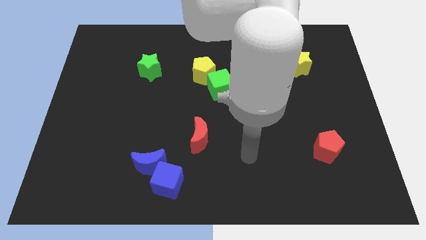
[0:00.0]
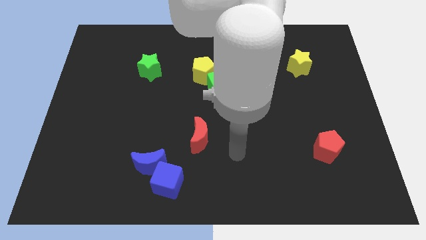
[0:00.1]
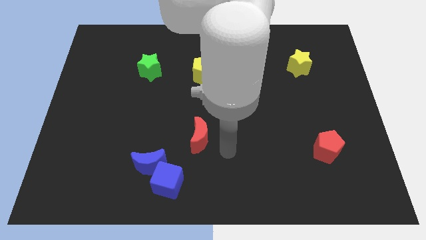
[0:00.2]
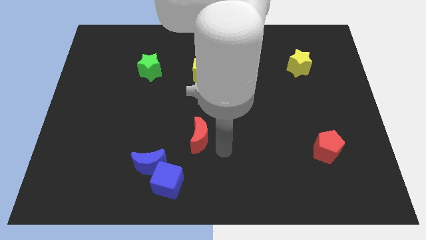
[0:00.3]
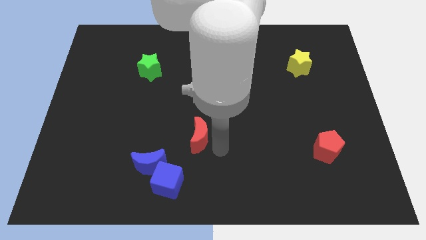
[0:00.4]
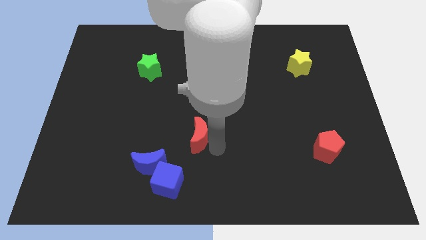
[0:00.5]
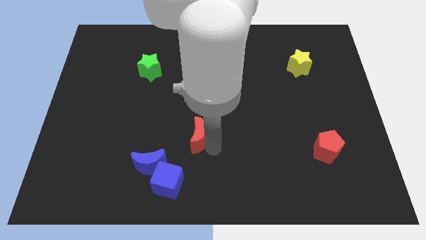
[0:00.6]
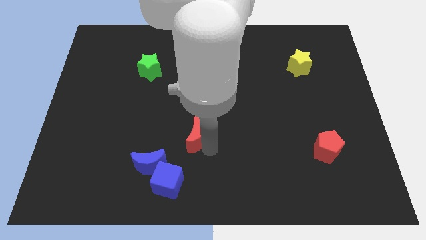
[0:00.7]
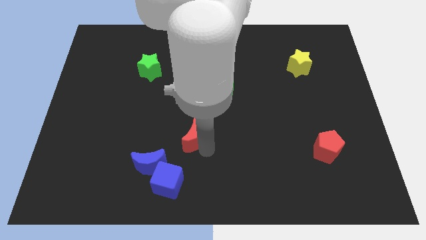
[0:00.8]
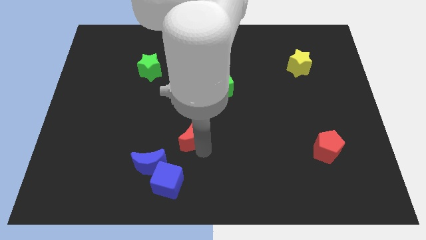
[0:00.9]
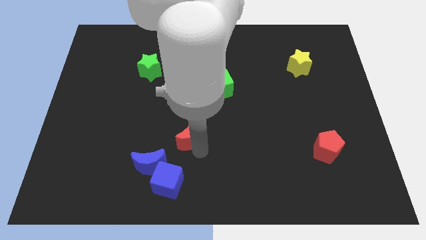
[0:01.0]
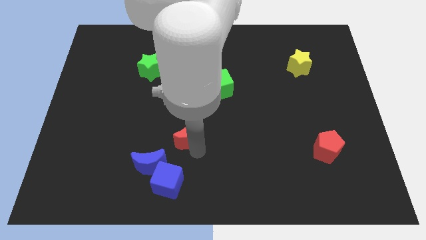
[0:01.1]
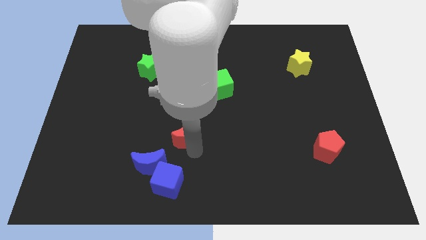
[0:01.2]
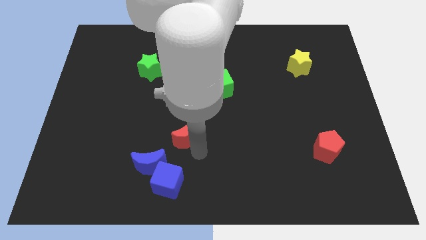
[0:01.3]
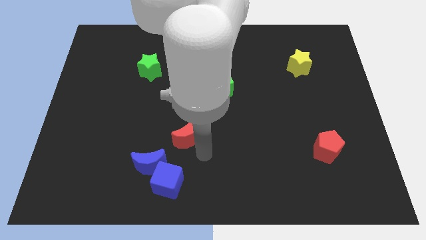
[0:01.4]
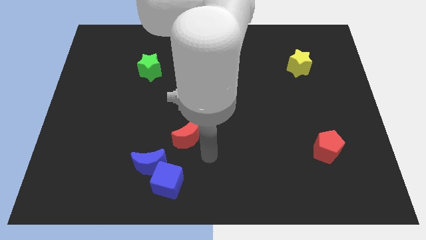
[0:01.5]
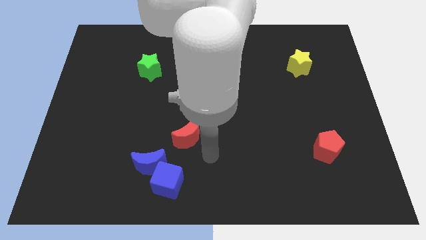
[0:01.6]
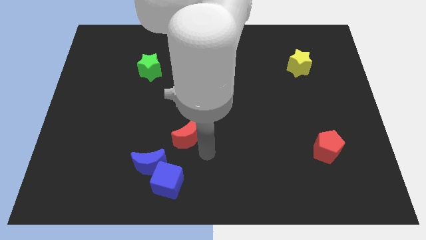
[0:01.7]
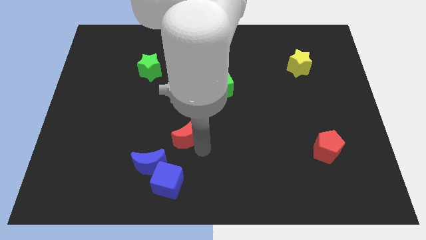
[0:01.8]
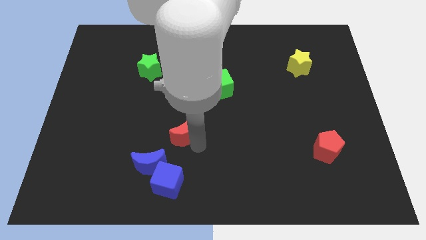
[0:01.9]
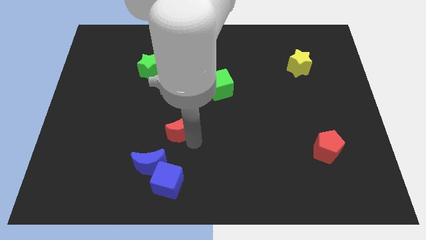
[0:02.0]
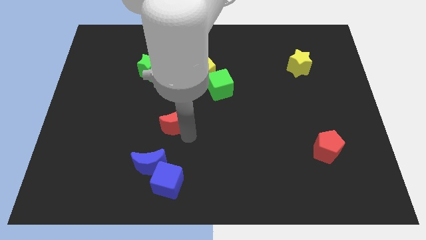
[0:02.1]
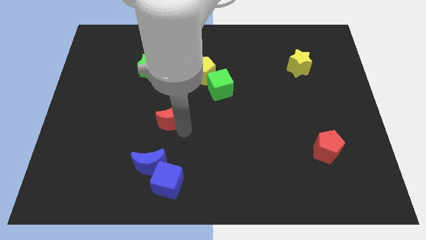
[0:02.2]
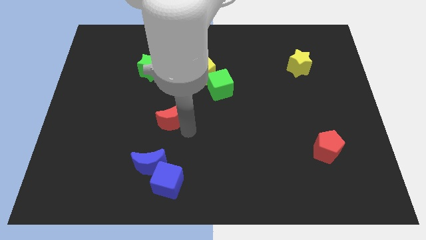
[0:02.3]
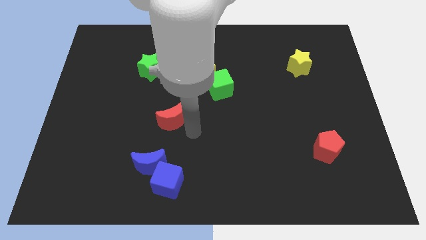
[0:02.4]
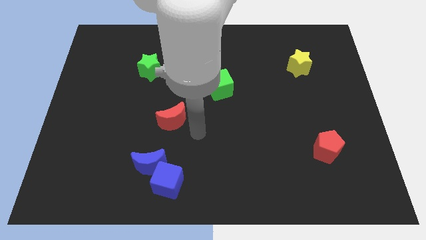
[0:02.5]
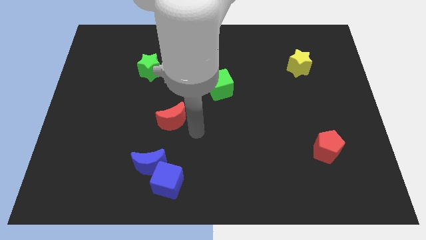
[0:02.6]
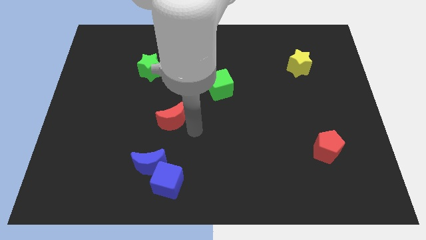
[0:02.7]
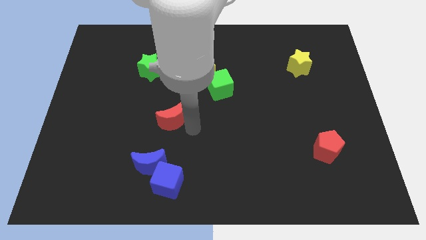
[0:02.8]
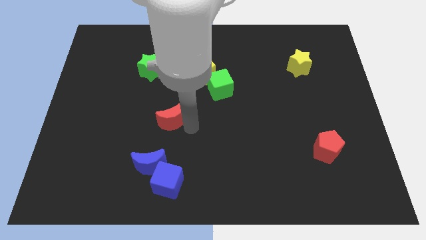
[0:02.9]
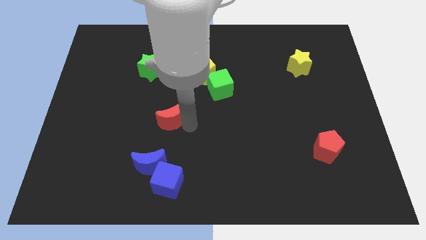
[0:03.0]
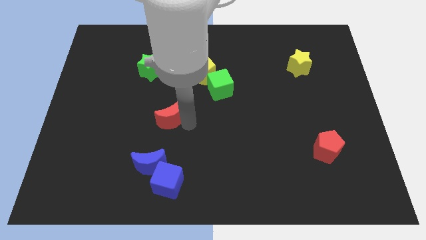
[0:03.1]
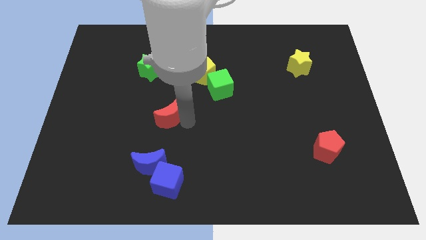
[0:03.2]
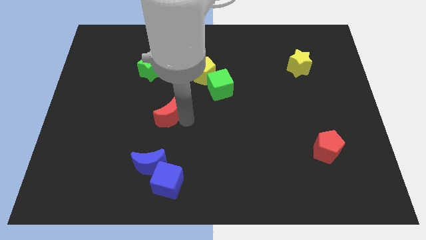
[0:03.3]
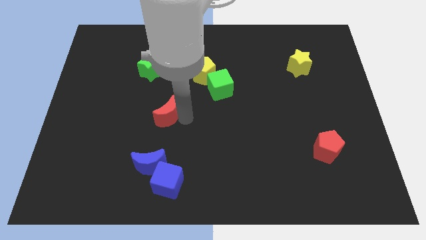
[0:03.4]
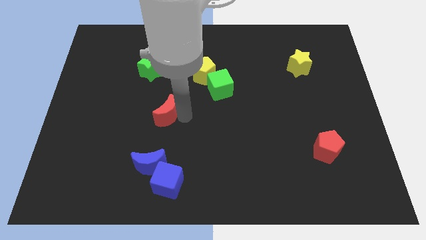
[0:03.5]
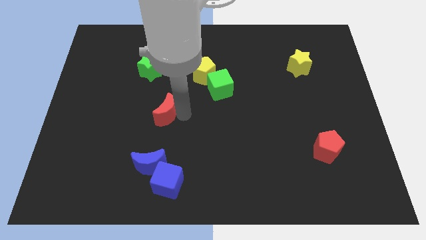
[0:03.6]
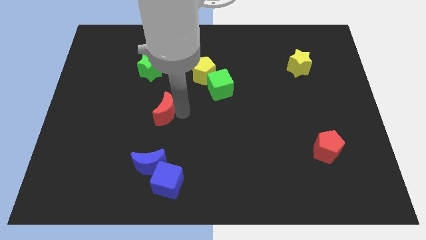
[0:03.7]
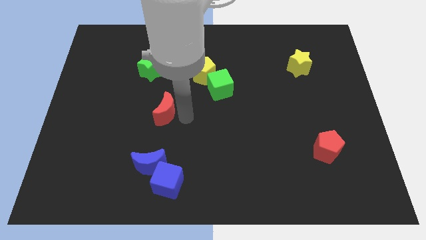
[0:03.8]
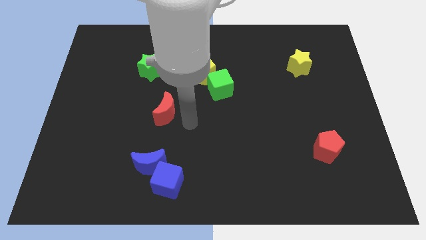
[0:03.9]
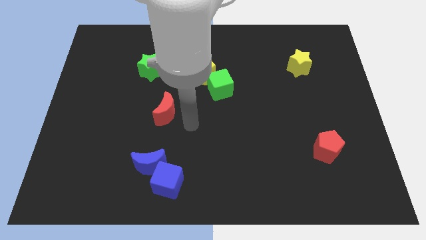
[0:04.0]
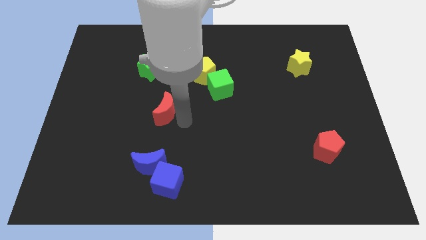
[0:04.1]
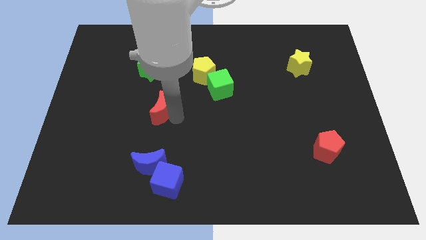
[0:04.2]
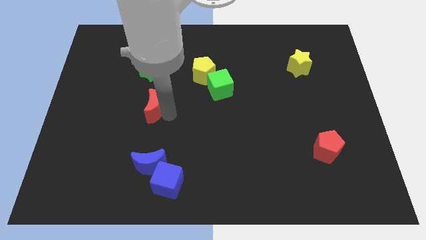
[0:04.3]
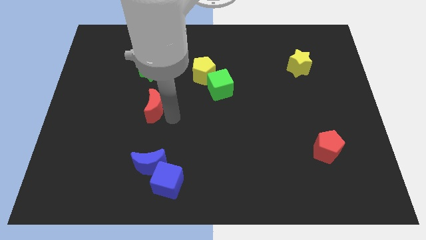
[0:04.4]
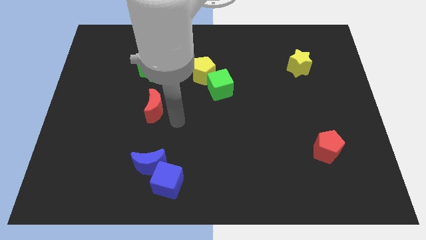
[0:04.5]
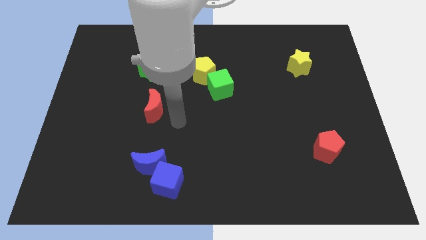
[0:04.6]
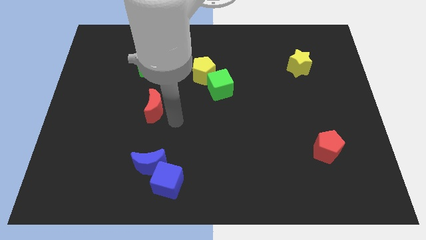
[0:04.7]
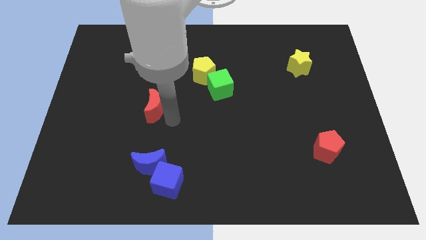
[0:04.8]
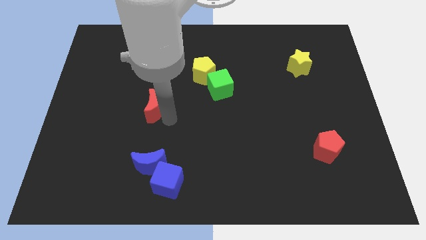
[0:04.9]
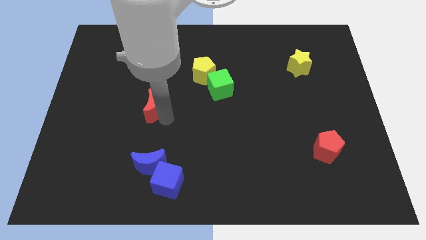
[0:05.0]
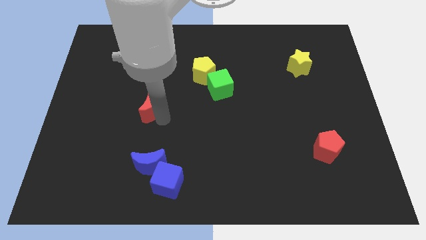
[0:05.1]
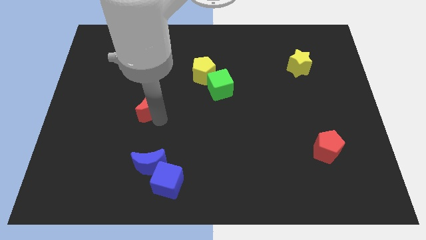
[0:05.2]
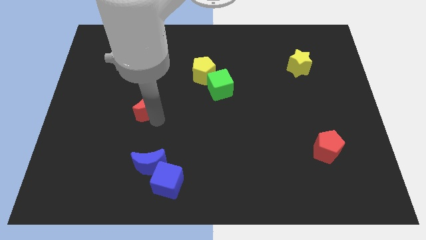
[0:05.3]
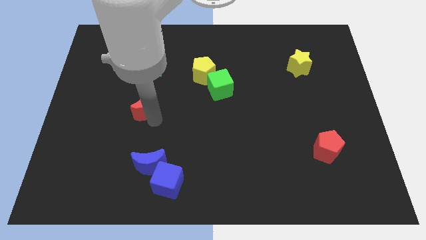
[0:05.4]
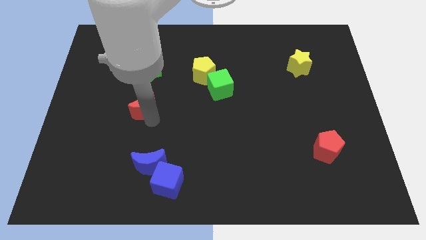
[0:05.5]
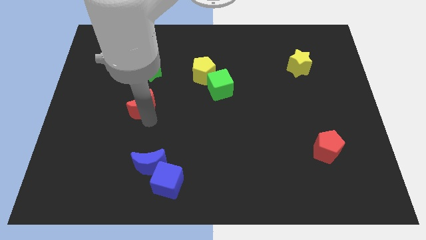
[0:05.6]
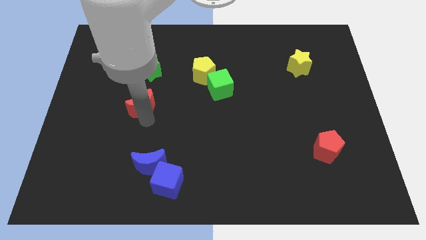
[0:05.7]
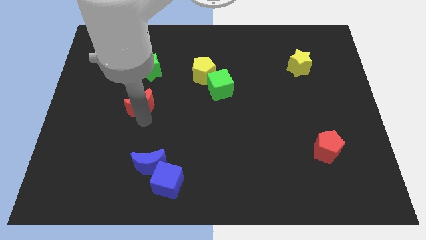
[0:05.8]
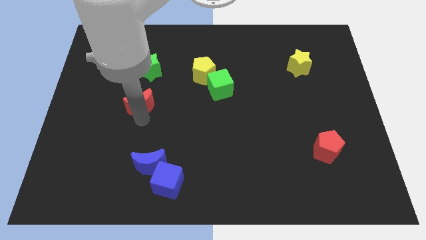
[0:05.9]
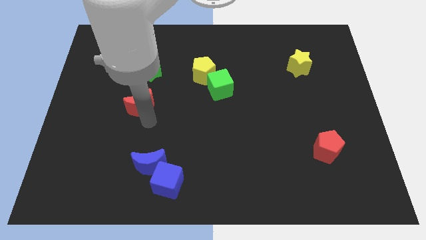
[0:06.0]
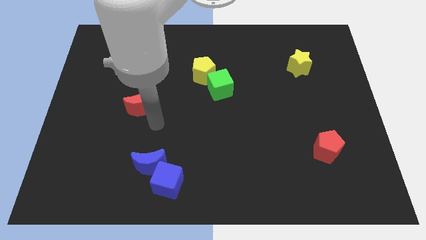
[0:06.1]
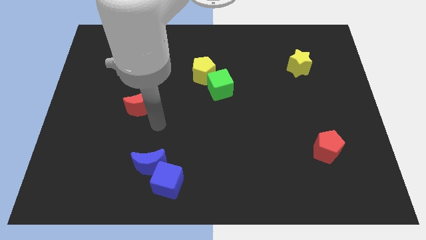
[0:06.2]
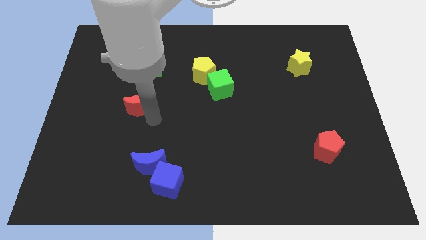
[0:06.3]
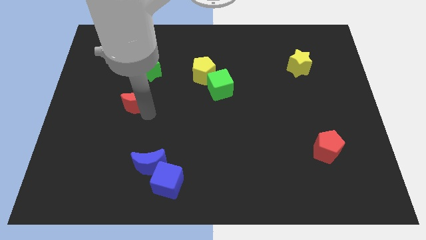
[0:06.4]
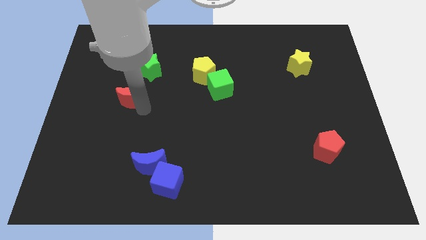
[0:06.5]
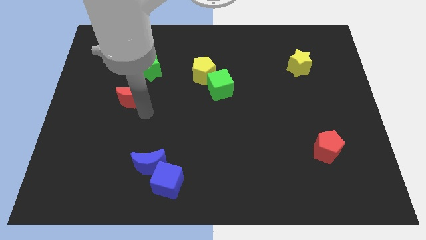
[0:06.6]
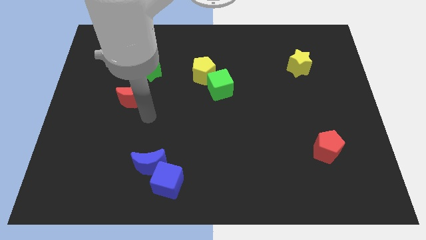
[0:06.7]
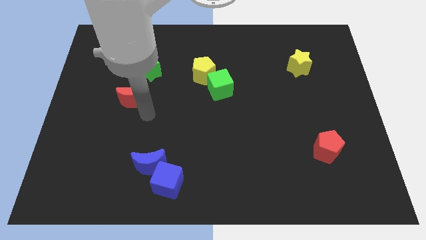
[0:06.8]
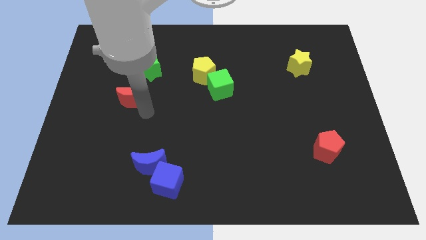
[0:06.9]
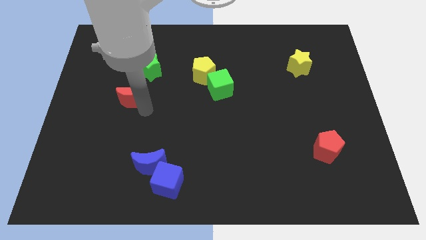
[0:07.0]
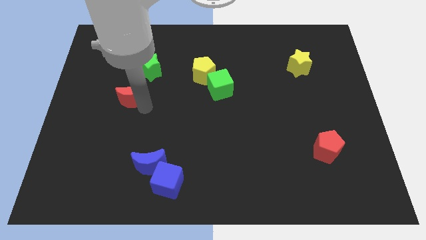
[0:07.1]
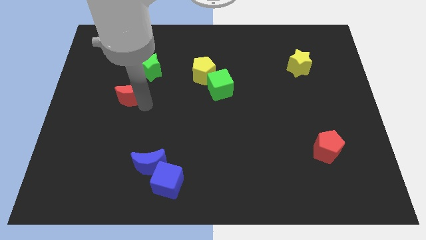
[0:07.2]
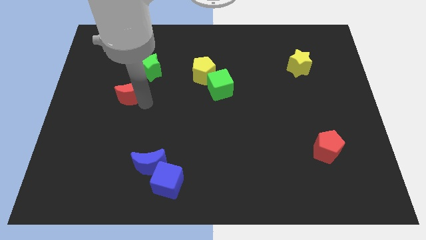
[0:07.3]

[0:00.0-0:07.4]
move the red moon diagonally up and left

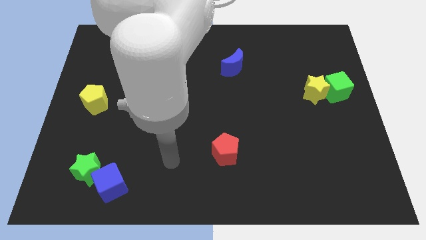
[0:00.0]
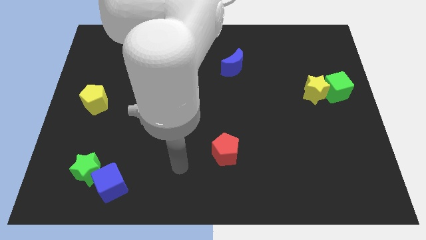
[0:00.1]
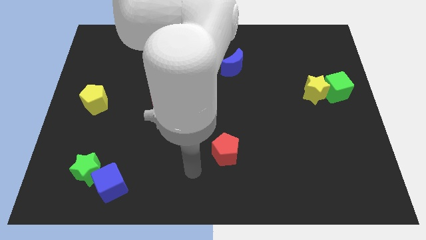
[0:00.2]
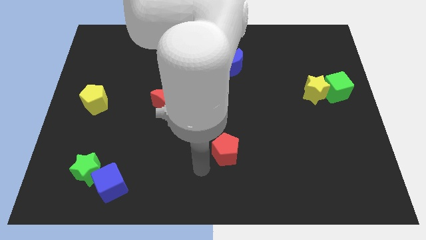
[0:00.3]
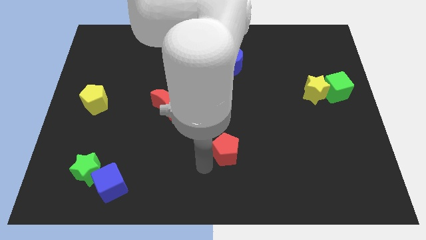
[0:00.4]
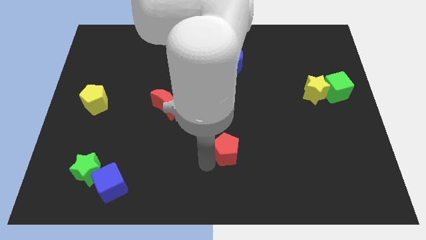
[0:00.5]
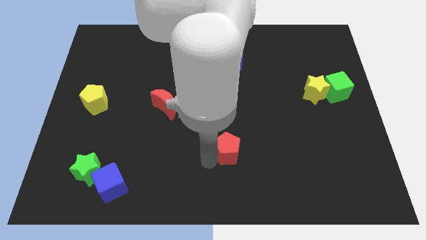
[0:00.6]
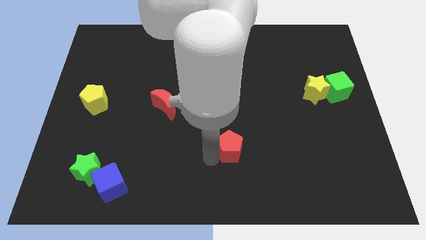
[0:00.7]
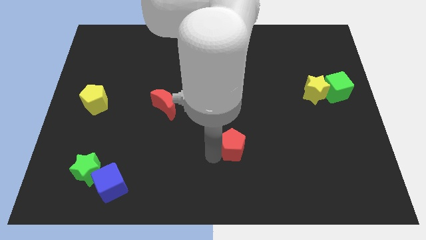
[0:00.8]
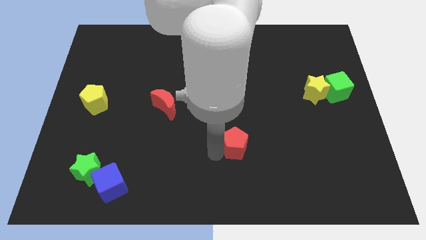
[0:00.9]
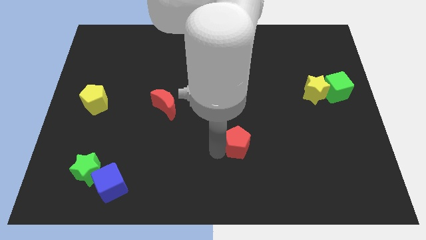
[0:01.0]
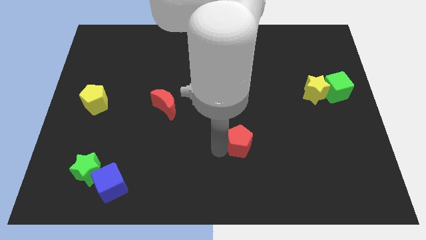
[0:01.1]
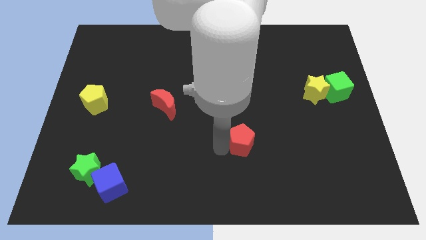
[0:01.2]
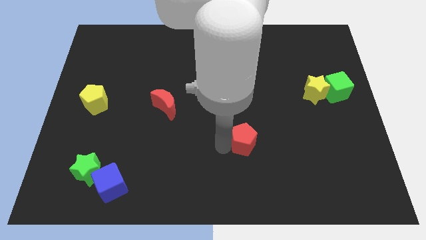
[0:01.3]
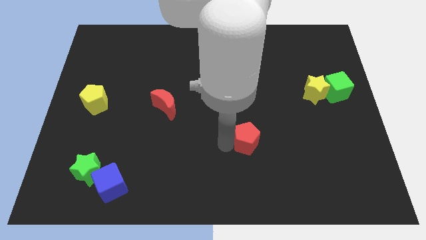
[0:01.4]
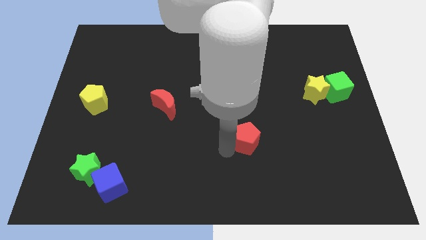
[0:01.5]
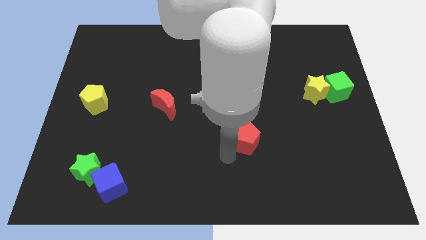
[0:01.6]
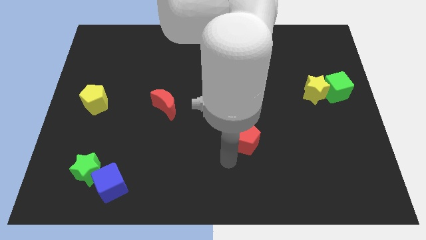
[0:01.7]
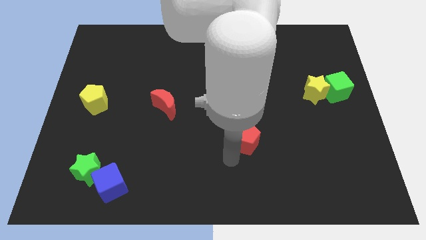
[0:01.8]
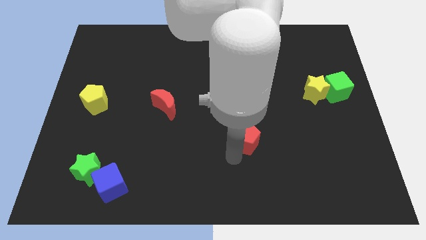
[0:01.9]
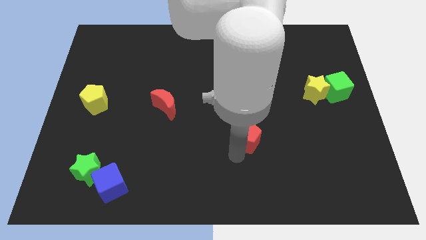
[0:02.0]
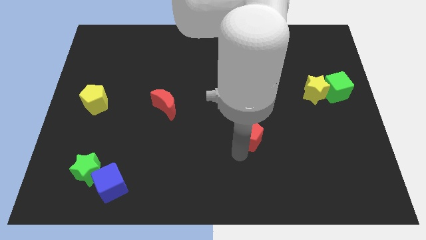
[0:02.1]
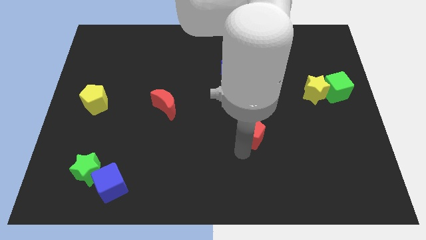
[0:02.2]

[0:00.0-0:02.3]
slightly slide the red pentagon up and then right
